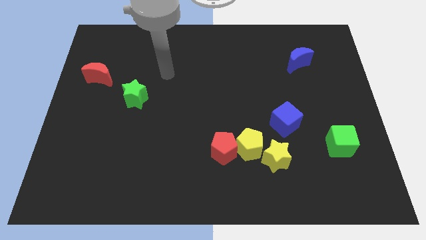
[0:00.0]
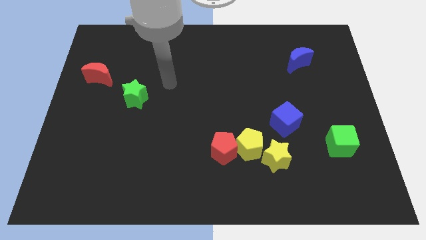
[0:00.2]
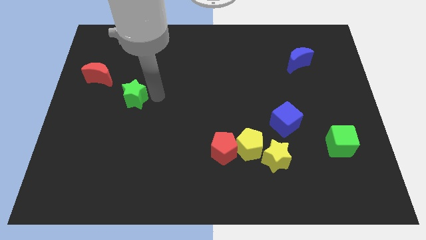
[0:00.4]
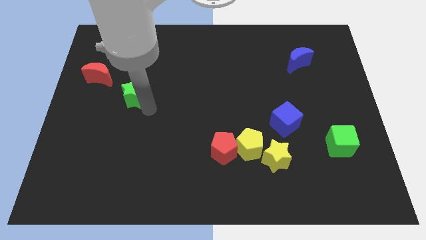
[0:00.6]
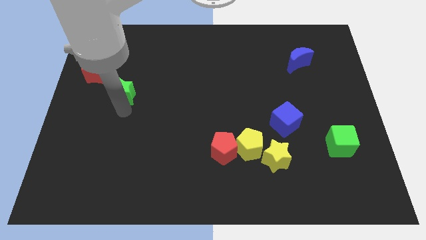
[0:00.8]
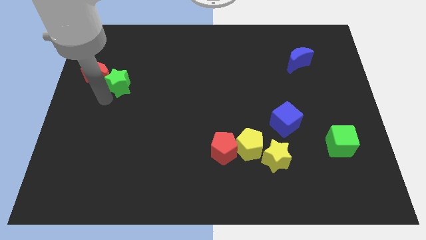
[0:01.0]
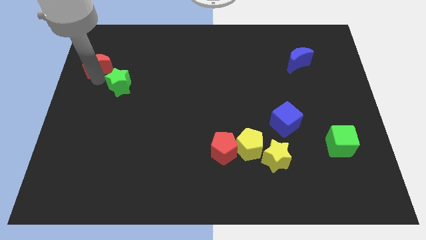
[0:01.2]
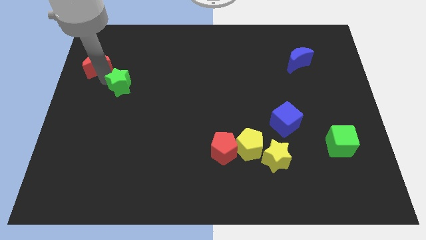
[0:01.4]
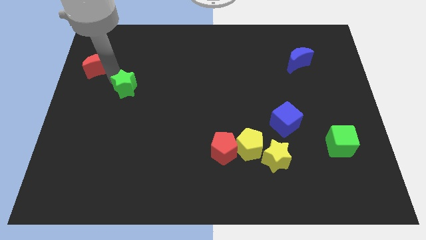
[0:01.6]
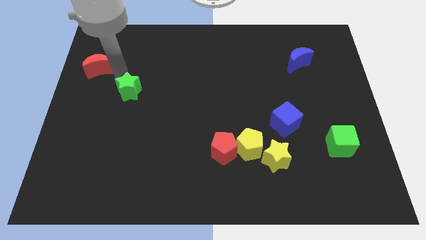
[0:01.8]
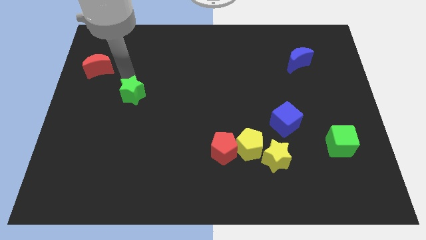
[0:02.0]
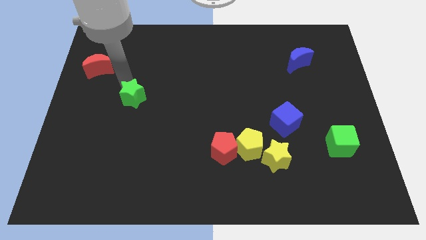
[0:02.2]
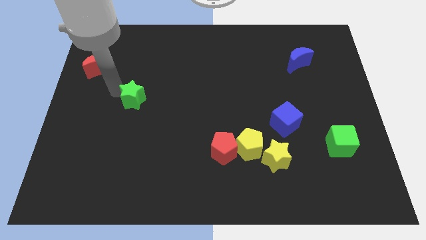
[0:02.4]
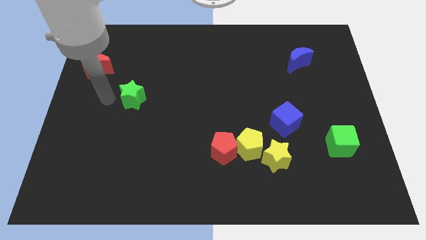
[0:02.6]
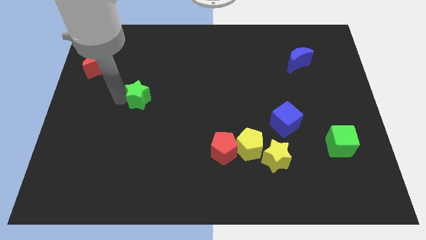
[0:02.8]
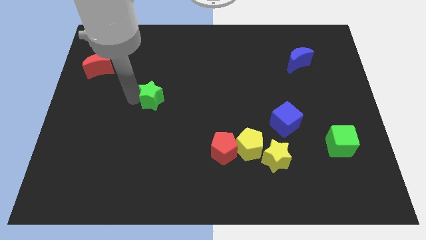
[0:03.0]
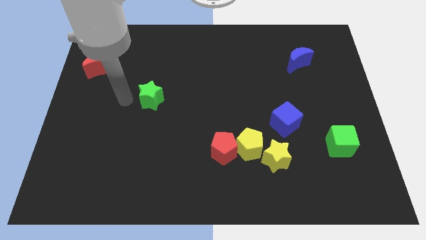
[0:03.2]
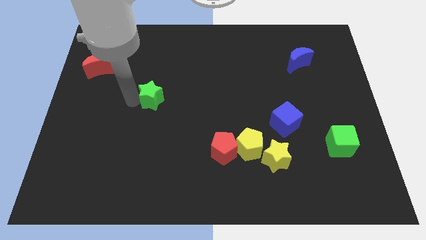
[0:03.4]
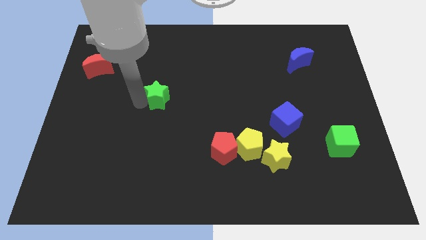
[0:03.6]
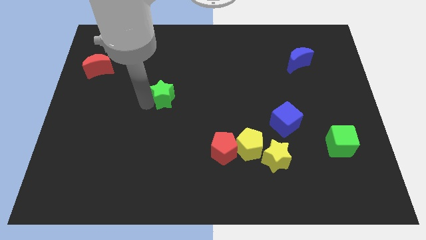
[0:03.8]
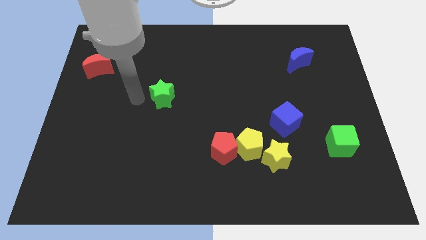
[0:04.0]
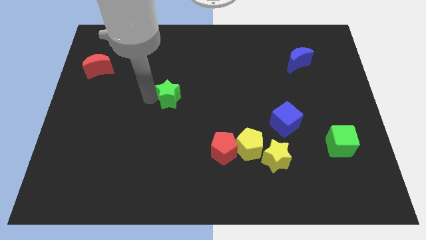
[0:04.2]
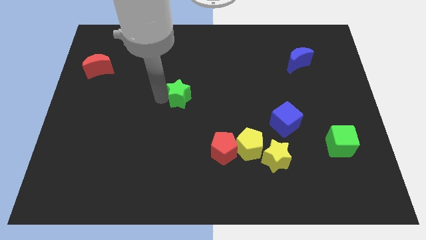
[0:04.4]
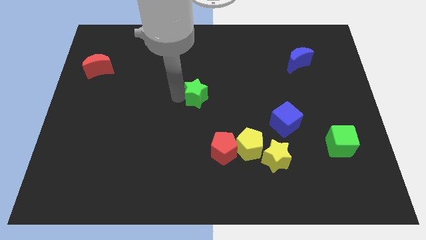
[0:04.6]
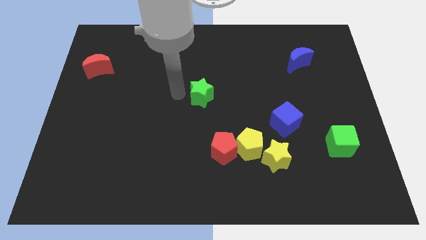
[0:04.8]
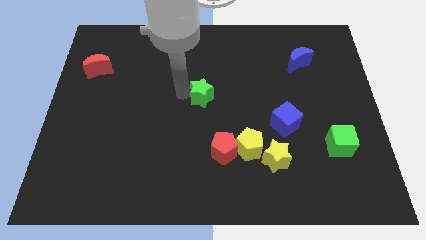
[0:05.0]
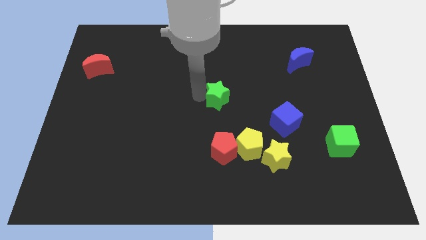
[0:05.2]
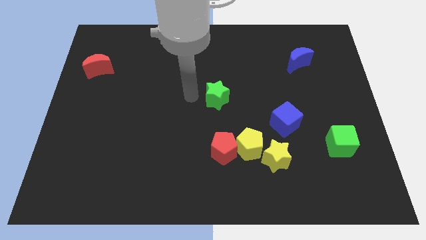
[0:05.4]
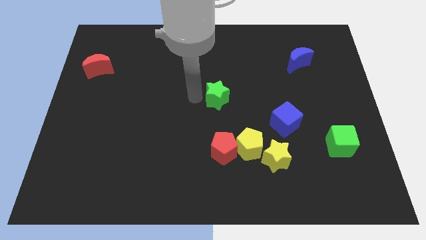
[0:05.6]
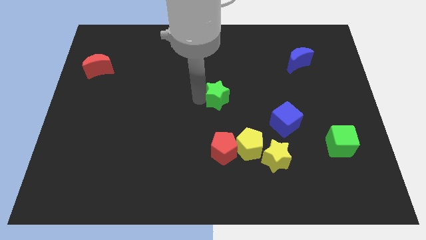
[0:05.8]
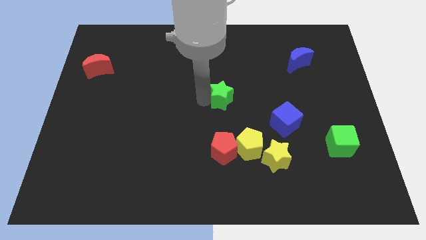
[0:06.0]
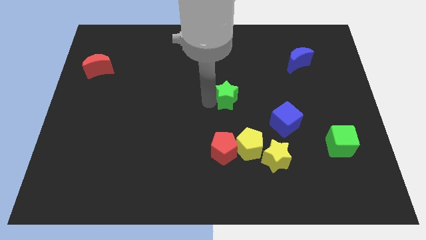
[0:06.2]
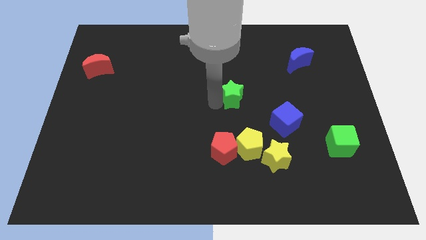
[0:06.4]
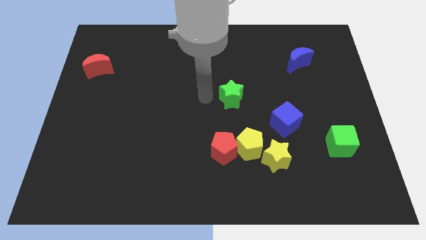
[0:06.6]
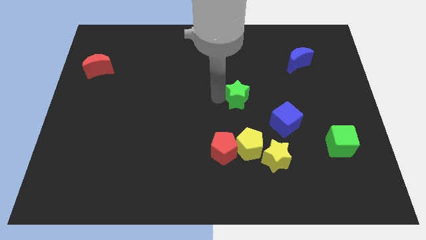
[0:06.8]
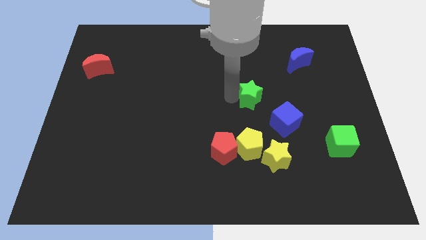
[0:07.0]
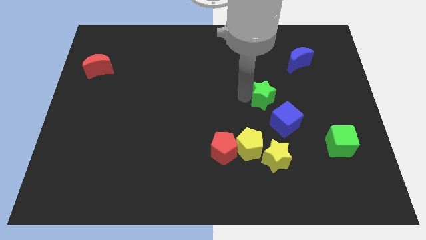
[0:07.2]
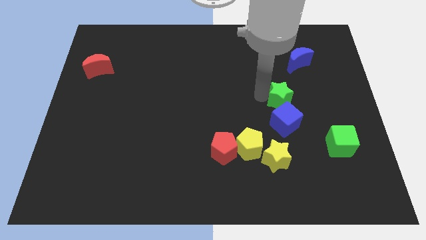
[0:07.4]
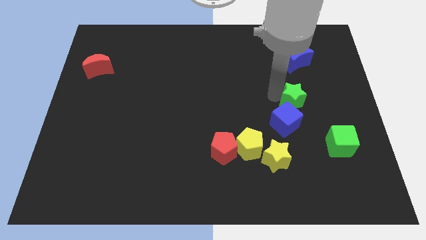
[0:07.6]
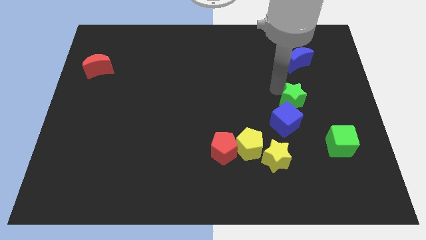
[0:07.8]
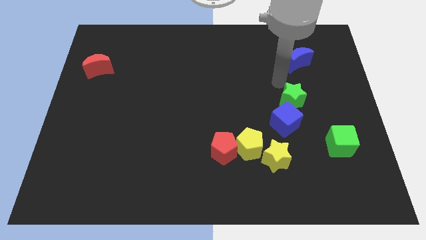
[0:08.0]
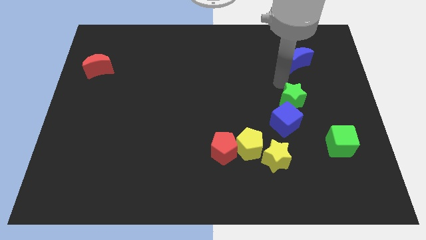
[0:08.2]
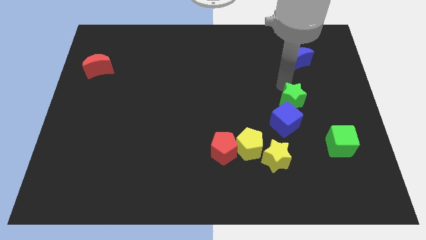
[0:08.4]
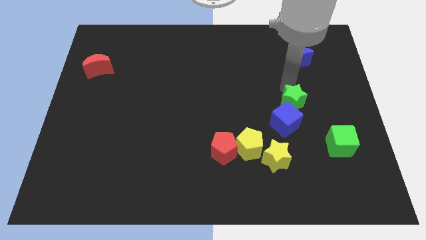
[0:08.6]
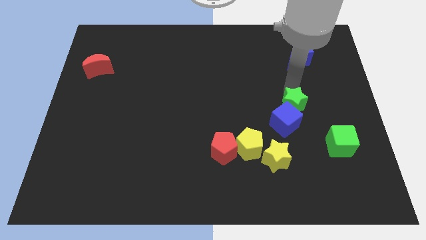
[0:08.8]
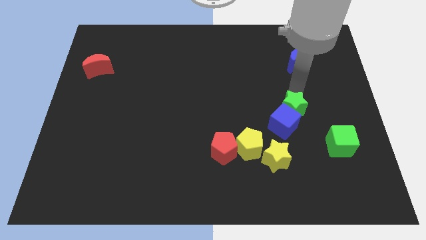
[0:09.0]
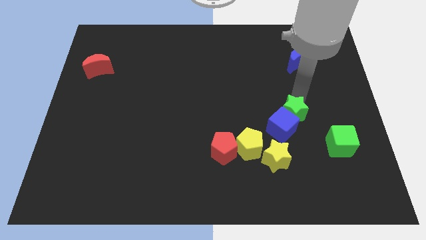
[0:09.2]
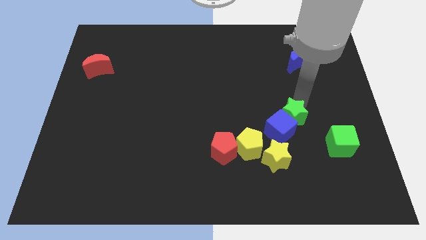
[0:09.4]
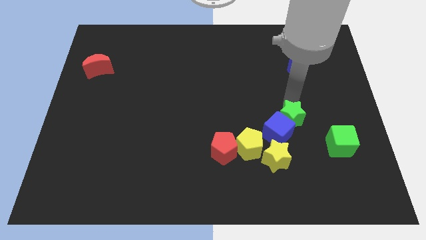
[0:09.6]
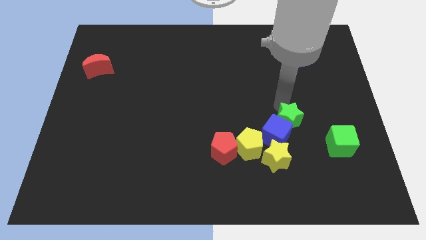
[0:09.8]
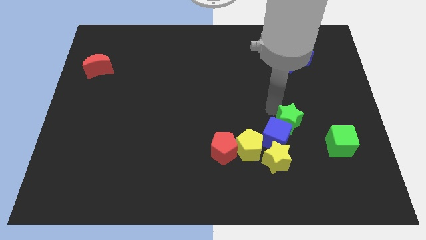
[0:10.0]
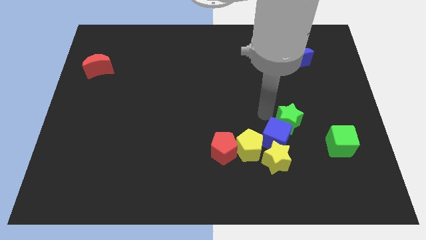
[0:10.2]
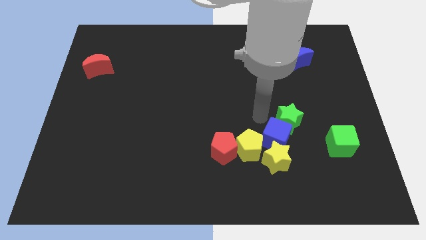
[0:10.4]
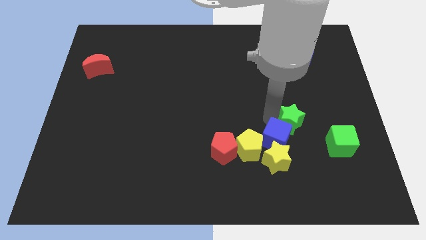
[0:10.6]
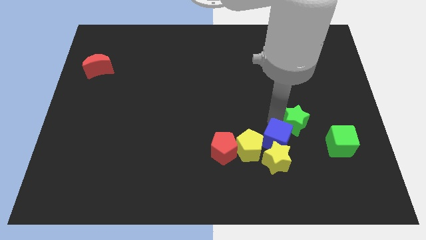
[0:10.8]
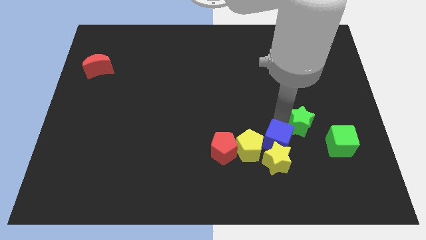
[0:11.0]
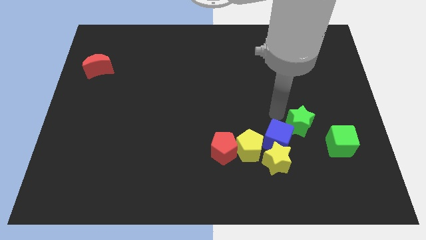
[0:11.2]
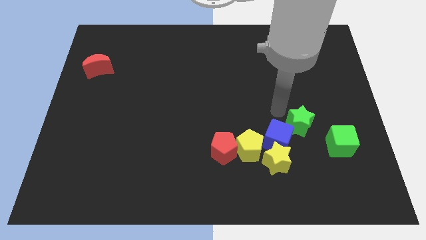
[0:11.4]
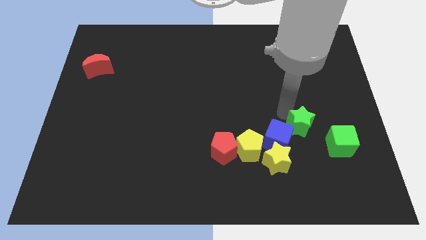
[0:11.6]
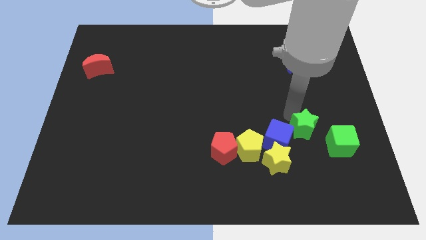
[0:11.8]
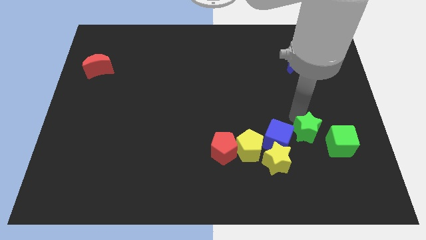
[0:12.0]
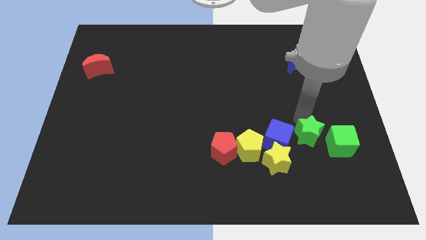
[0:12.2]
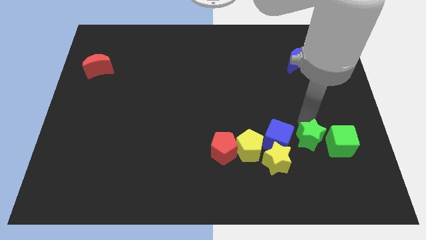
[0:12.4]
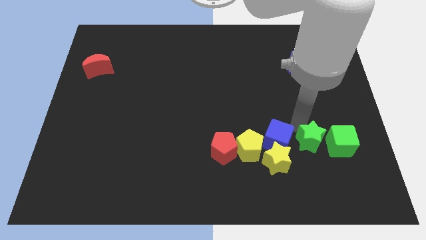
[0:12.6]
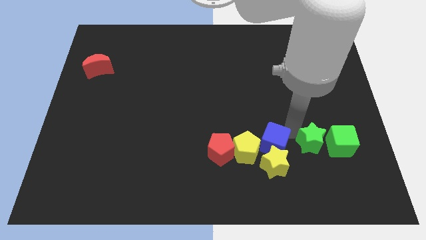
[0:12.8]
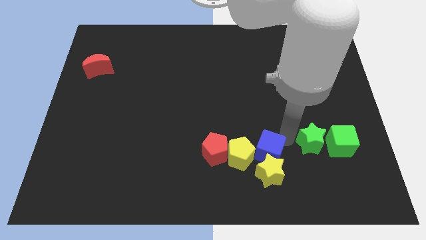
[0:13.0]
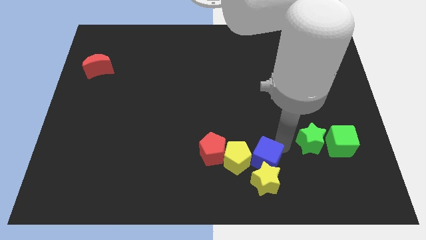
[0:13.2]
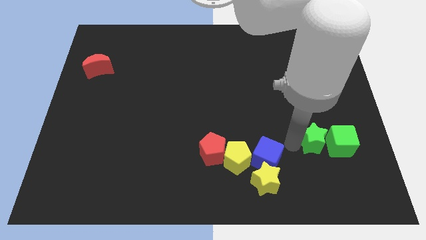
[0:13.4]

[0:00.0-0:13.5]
slide the green star towards the green cube
